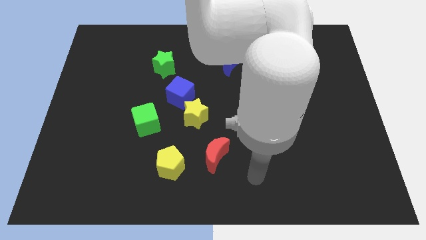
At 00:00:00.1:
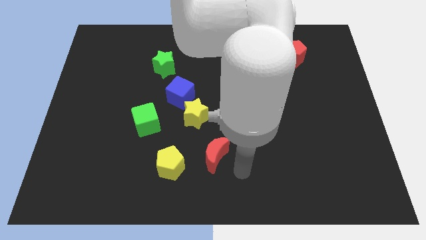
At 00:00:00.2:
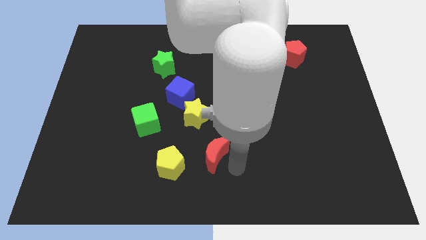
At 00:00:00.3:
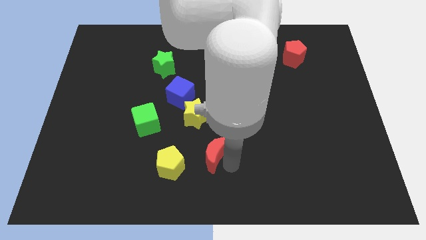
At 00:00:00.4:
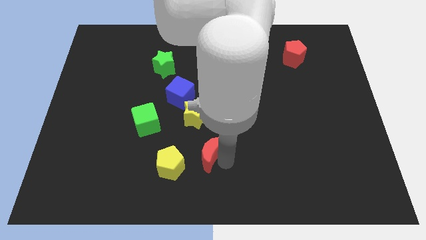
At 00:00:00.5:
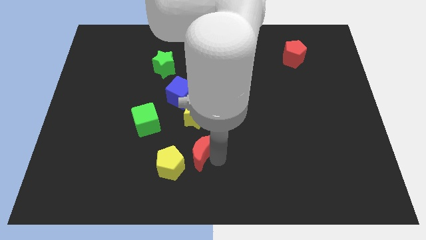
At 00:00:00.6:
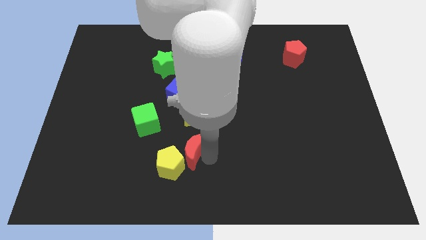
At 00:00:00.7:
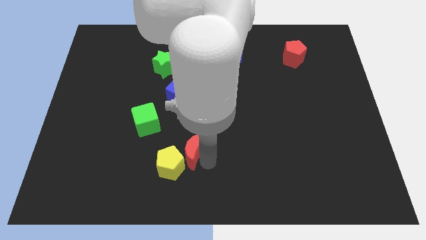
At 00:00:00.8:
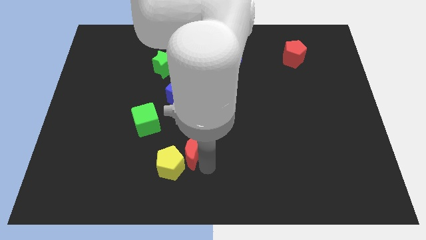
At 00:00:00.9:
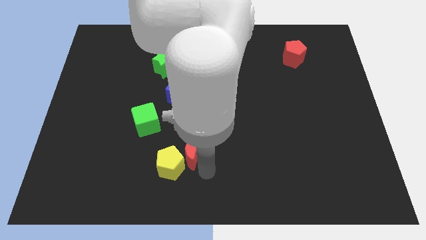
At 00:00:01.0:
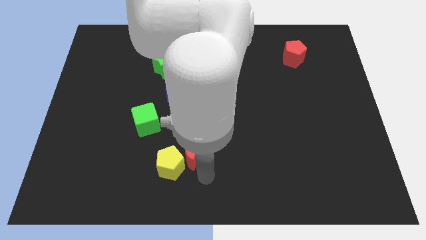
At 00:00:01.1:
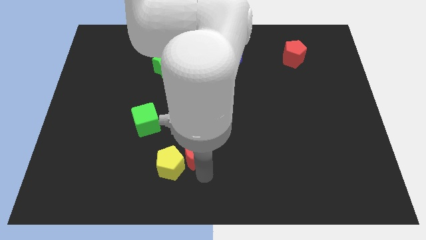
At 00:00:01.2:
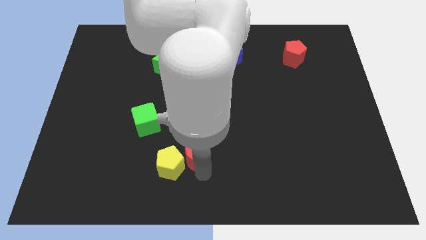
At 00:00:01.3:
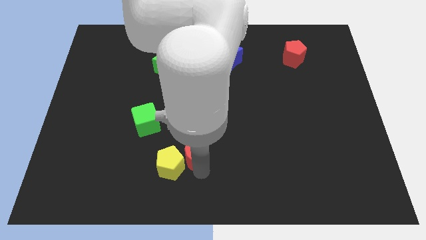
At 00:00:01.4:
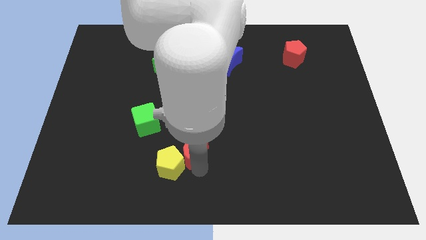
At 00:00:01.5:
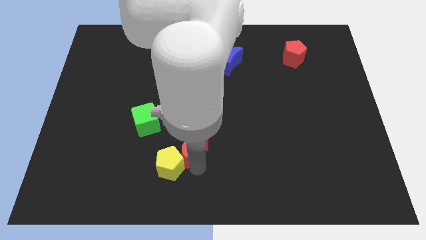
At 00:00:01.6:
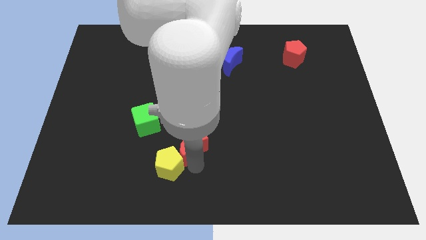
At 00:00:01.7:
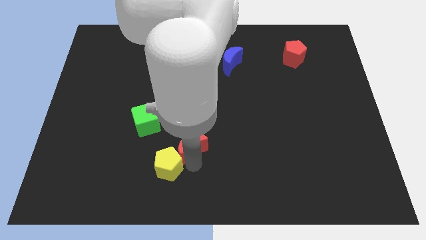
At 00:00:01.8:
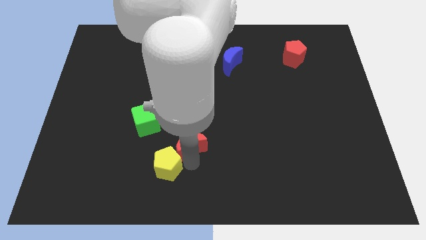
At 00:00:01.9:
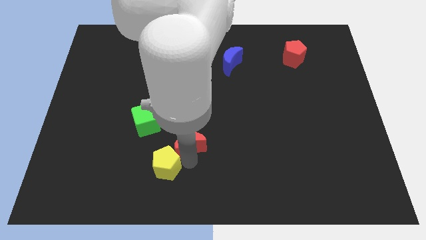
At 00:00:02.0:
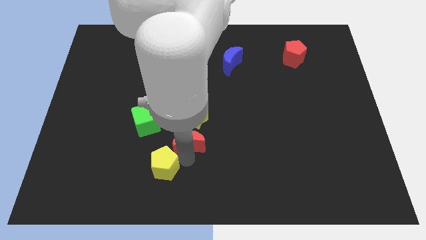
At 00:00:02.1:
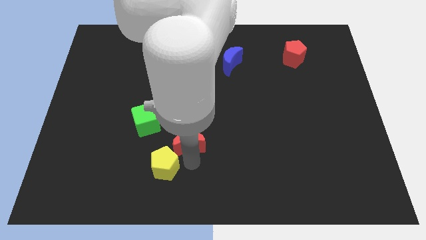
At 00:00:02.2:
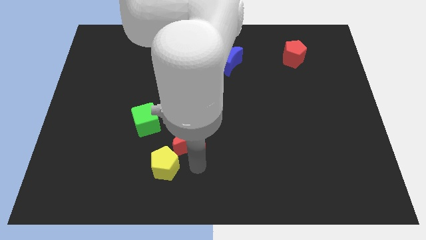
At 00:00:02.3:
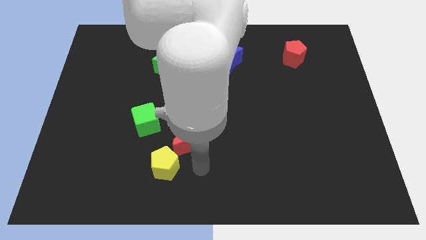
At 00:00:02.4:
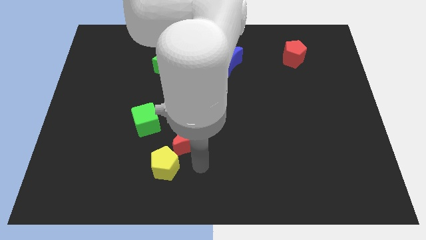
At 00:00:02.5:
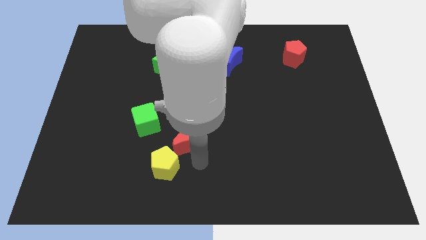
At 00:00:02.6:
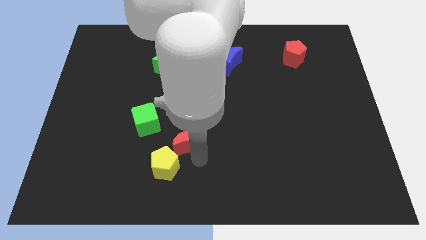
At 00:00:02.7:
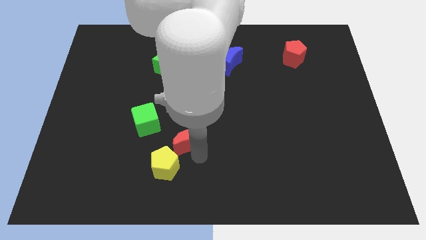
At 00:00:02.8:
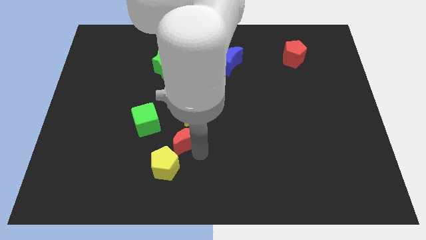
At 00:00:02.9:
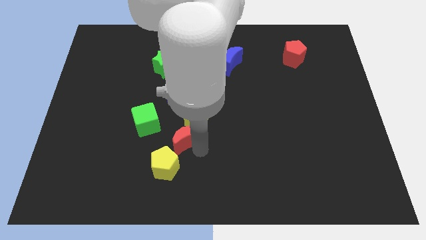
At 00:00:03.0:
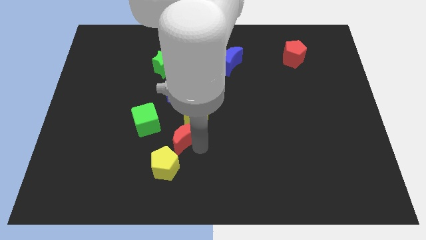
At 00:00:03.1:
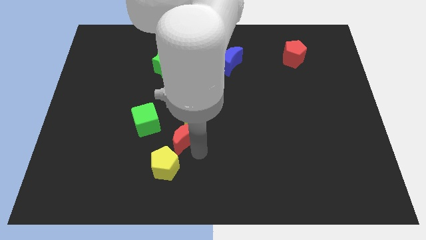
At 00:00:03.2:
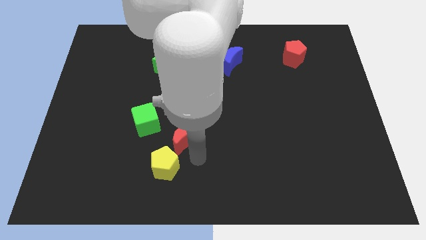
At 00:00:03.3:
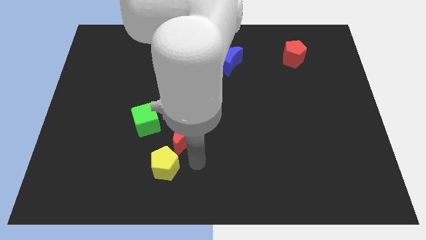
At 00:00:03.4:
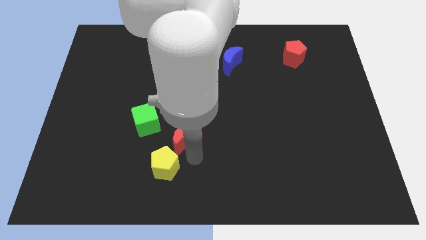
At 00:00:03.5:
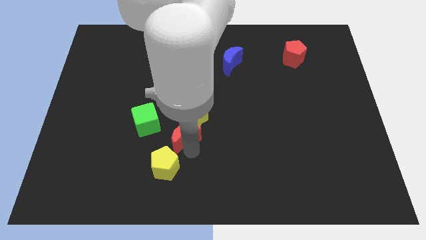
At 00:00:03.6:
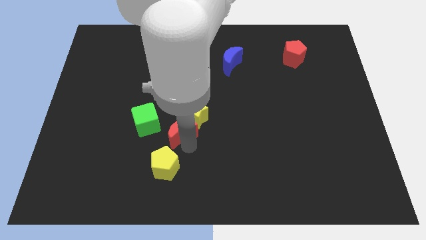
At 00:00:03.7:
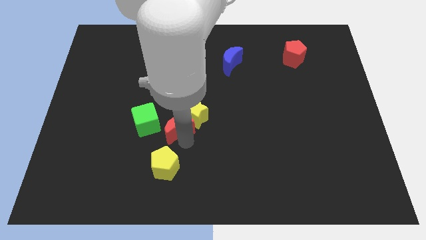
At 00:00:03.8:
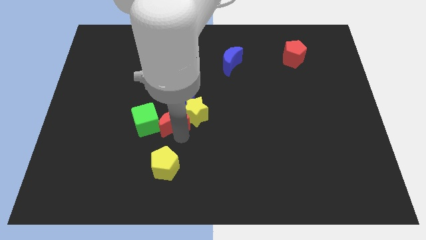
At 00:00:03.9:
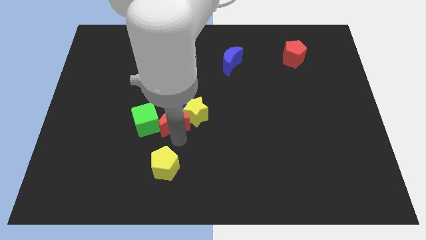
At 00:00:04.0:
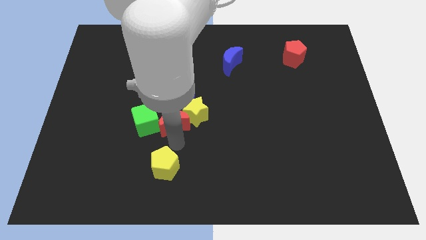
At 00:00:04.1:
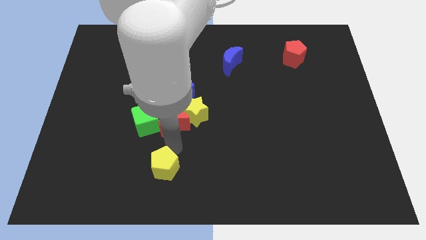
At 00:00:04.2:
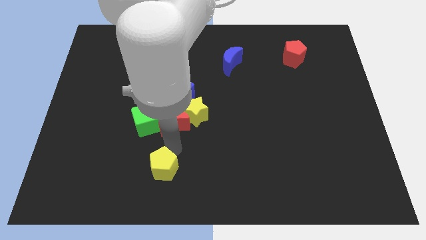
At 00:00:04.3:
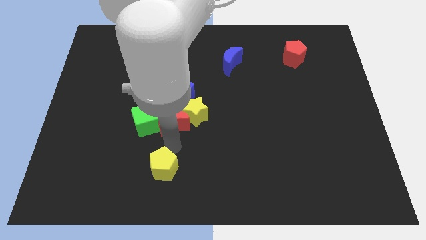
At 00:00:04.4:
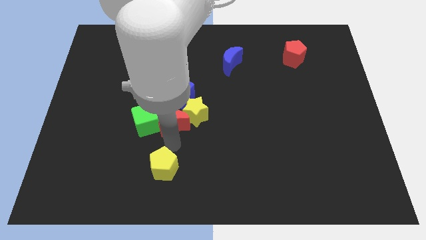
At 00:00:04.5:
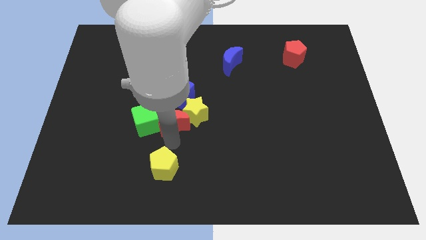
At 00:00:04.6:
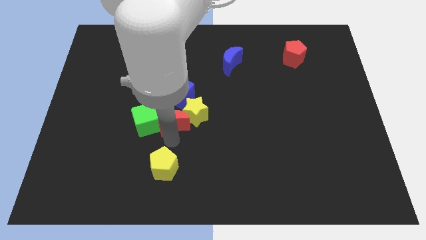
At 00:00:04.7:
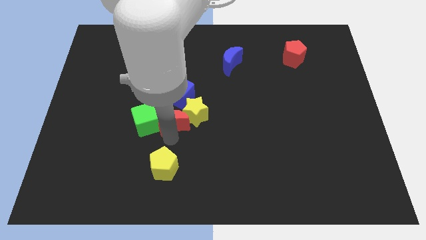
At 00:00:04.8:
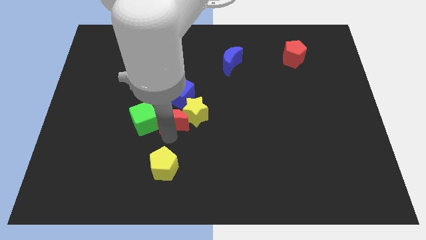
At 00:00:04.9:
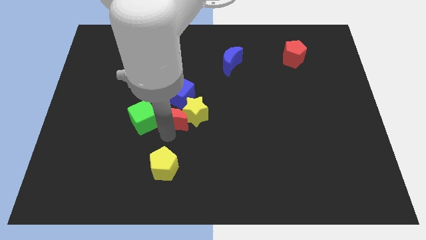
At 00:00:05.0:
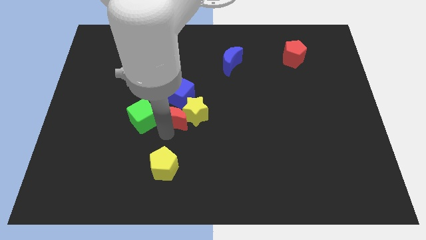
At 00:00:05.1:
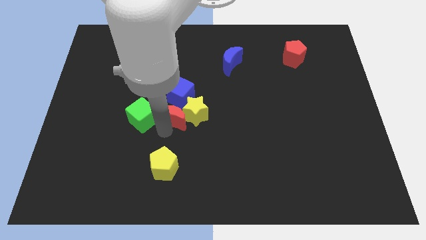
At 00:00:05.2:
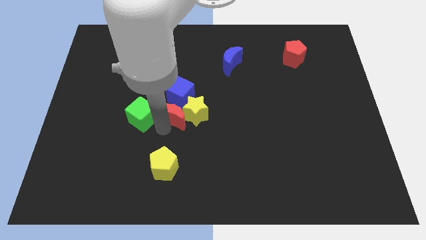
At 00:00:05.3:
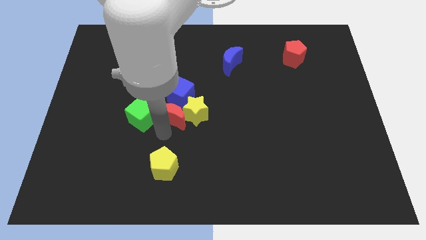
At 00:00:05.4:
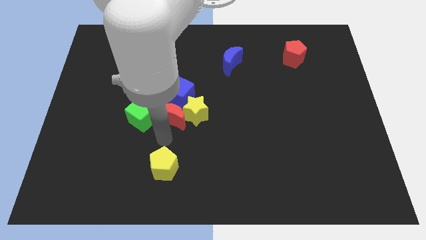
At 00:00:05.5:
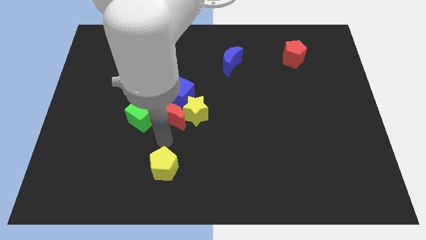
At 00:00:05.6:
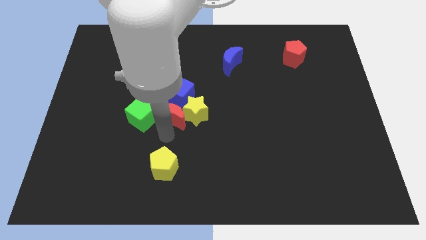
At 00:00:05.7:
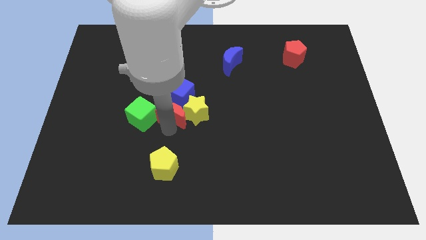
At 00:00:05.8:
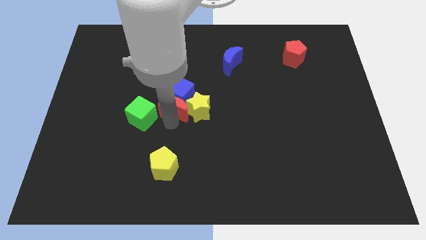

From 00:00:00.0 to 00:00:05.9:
put the red moon to the blue cube

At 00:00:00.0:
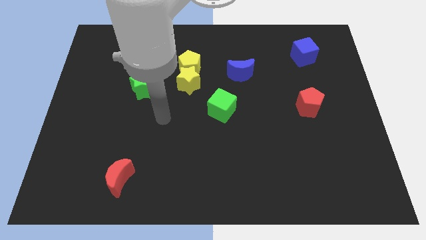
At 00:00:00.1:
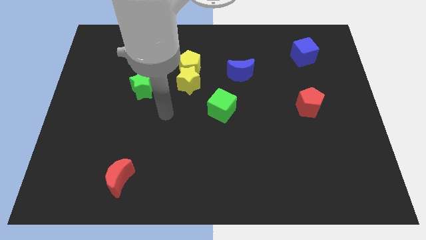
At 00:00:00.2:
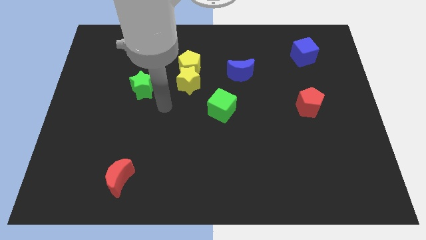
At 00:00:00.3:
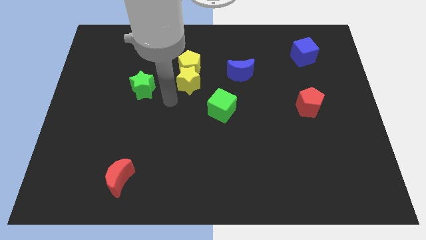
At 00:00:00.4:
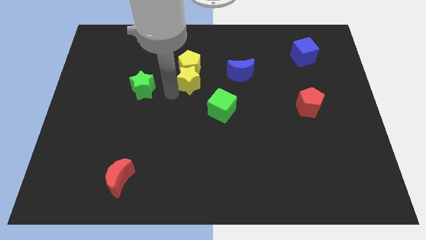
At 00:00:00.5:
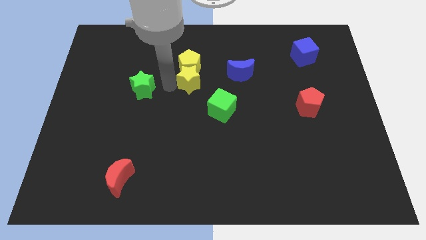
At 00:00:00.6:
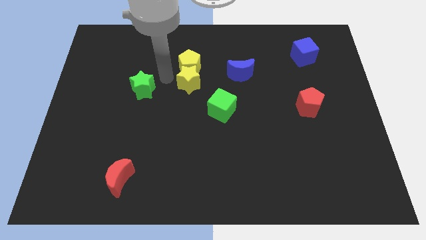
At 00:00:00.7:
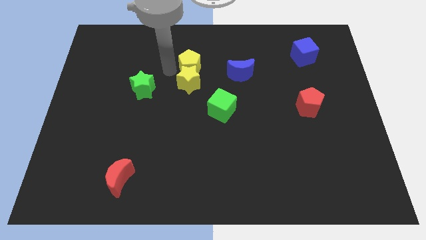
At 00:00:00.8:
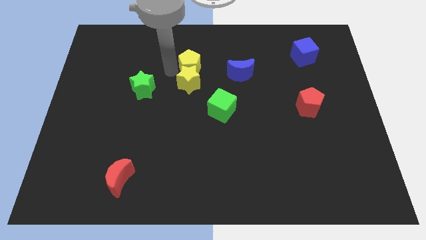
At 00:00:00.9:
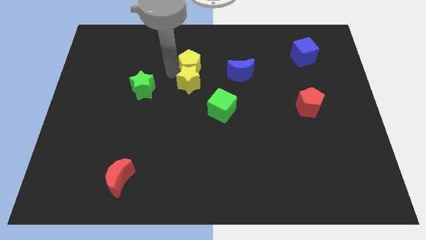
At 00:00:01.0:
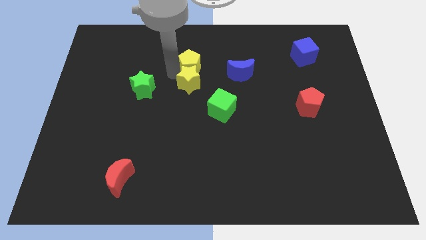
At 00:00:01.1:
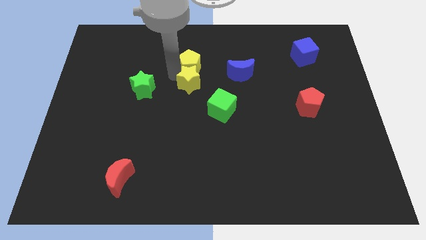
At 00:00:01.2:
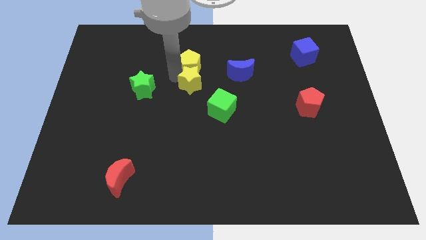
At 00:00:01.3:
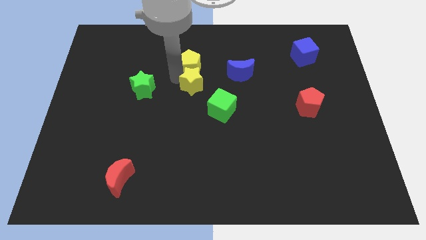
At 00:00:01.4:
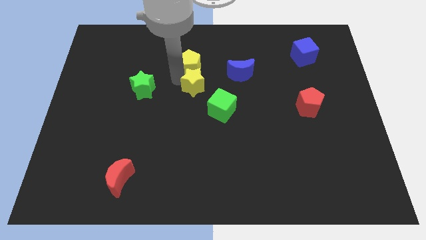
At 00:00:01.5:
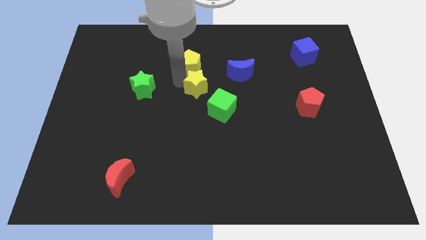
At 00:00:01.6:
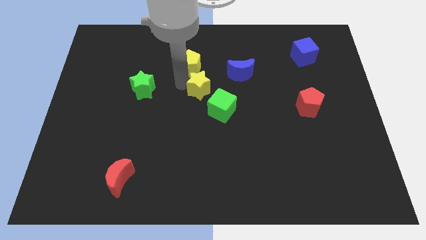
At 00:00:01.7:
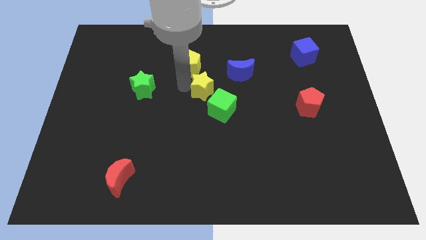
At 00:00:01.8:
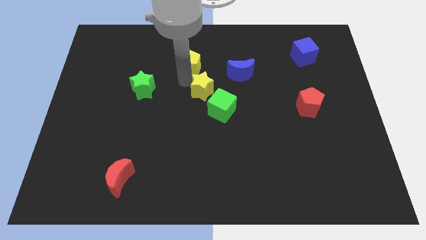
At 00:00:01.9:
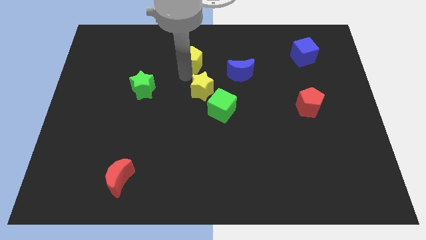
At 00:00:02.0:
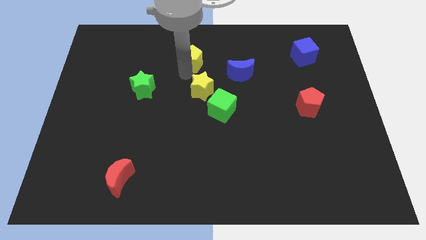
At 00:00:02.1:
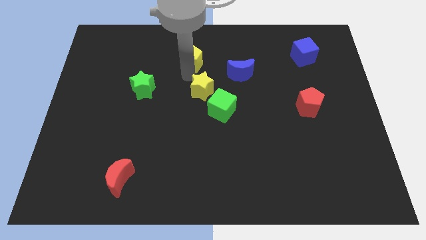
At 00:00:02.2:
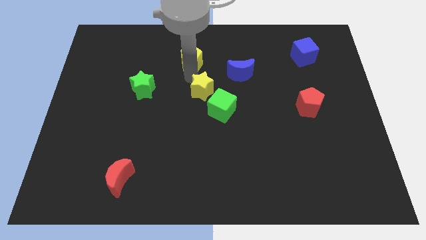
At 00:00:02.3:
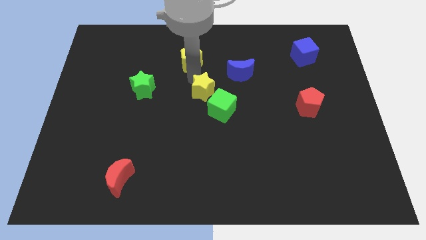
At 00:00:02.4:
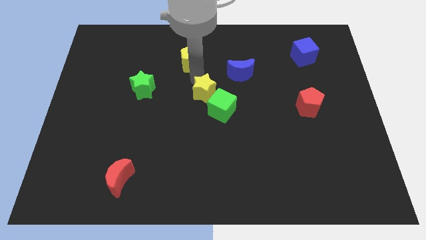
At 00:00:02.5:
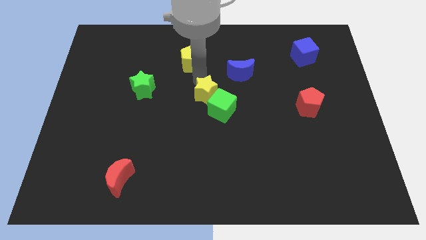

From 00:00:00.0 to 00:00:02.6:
move the yellow star next to the green cube
